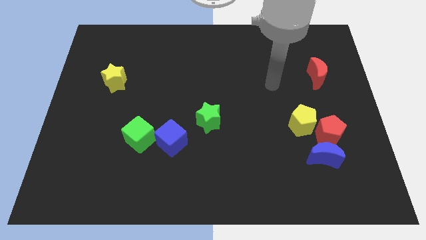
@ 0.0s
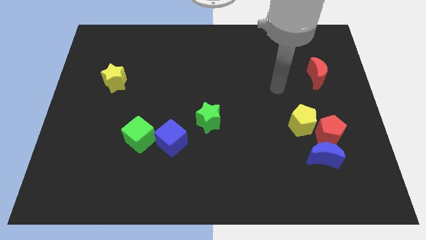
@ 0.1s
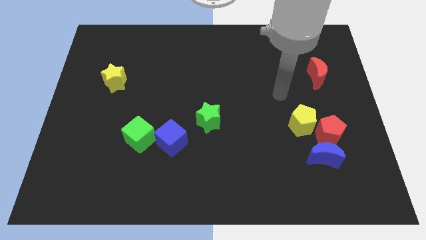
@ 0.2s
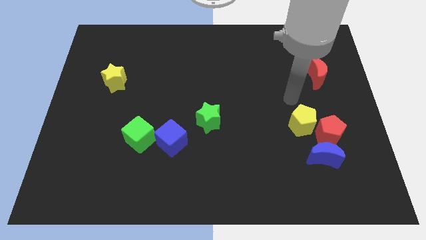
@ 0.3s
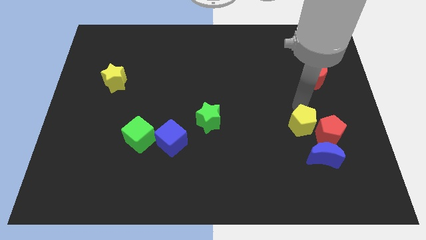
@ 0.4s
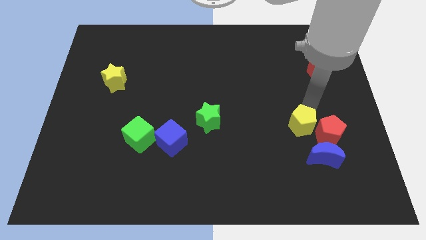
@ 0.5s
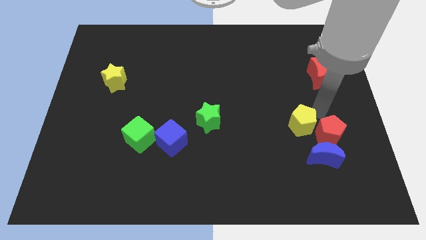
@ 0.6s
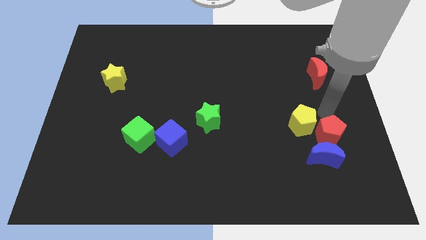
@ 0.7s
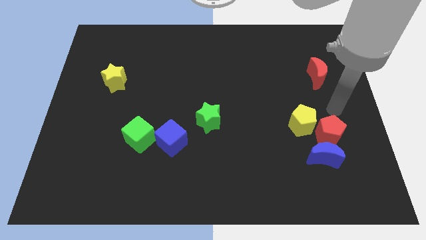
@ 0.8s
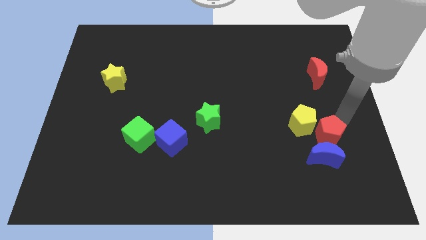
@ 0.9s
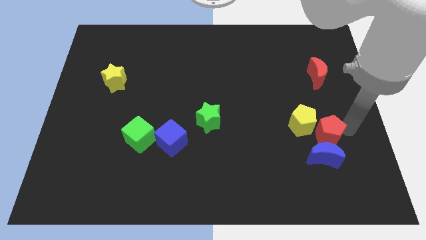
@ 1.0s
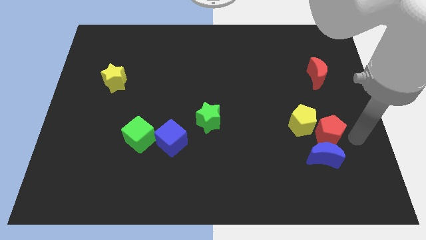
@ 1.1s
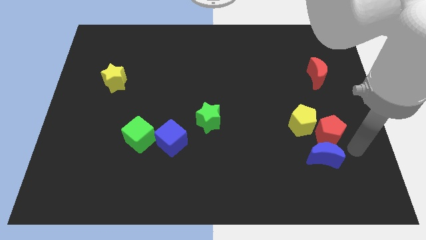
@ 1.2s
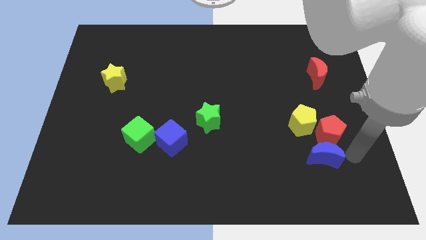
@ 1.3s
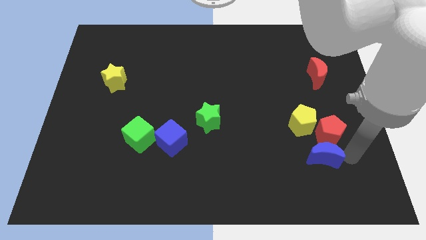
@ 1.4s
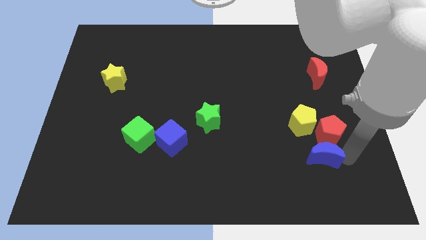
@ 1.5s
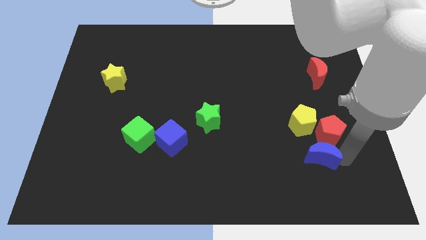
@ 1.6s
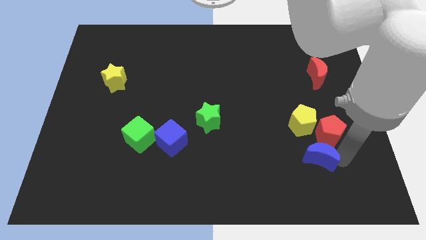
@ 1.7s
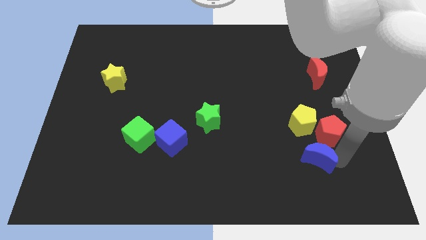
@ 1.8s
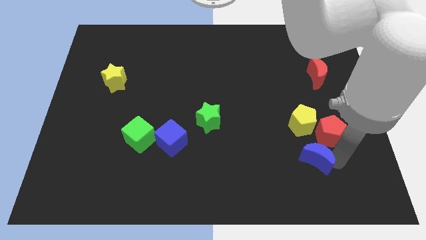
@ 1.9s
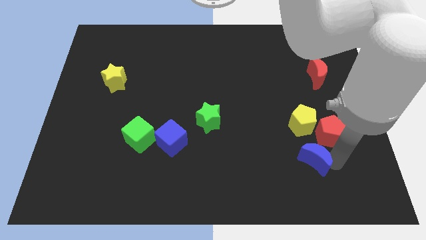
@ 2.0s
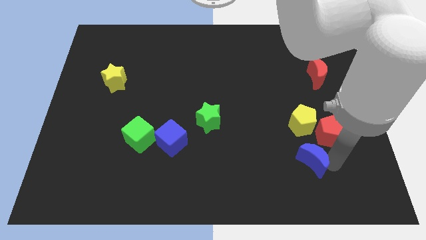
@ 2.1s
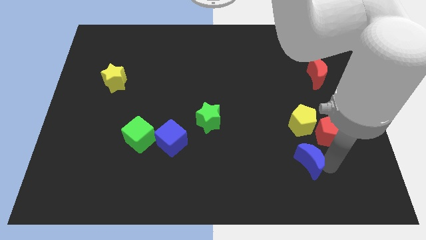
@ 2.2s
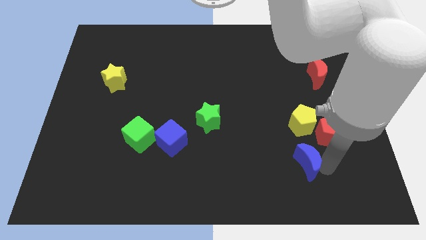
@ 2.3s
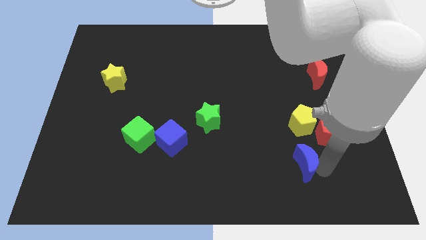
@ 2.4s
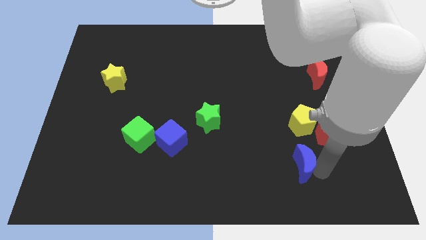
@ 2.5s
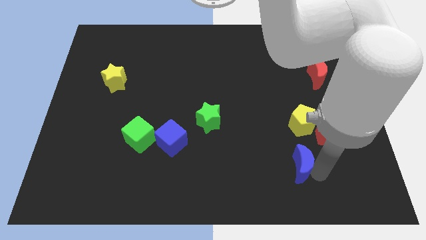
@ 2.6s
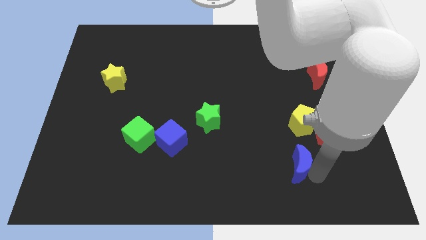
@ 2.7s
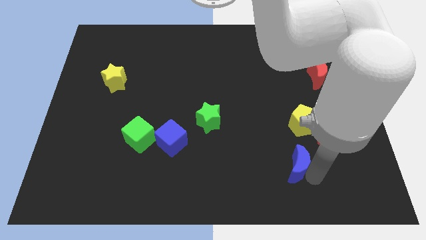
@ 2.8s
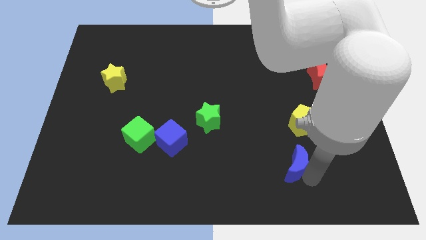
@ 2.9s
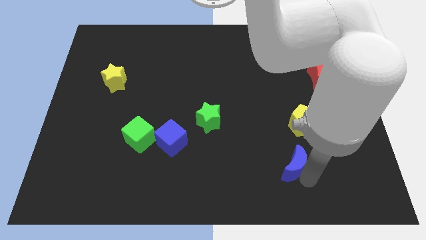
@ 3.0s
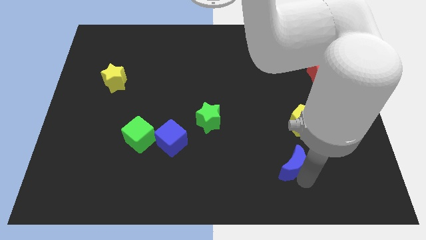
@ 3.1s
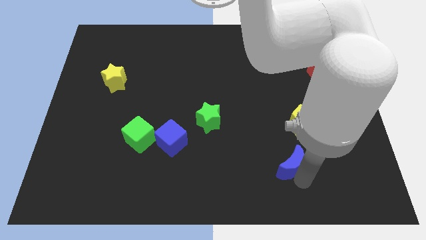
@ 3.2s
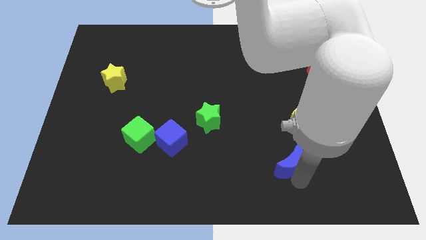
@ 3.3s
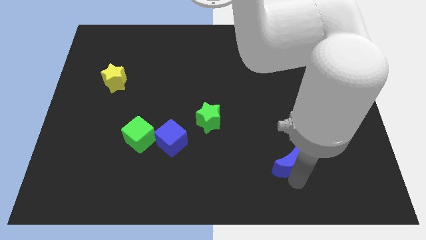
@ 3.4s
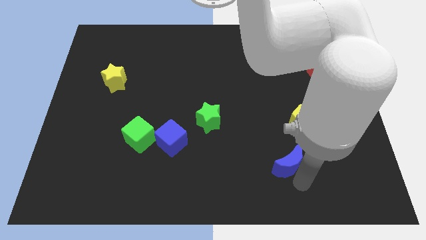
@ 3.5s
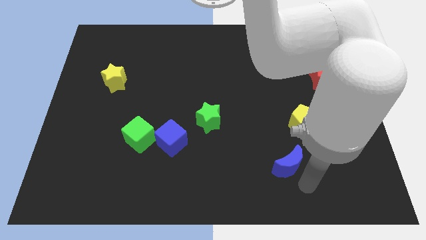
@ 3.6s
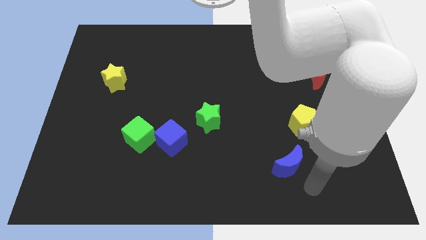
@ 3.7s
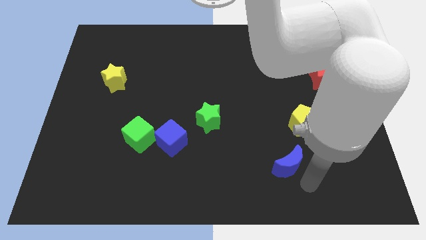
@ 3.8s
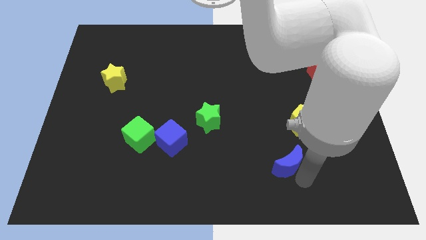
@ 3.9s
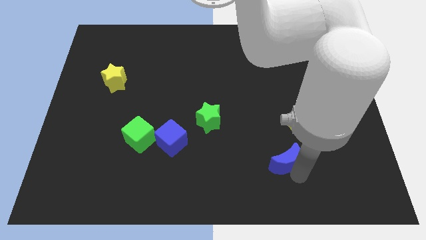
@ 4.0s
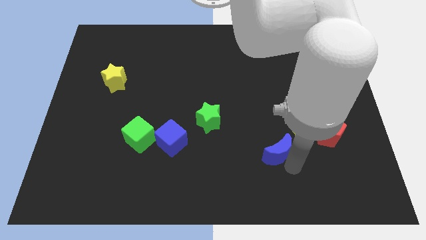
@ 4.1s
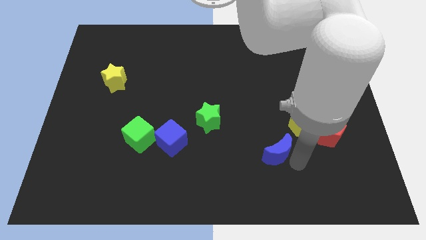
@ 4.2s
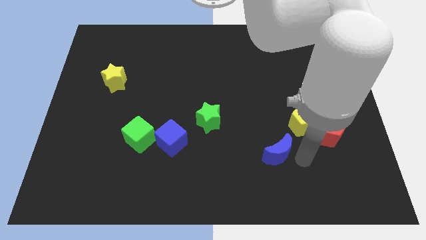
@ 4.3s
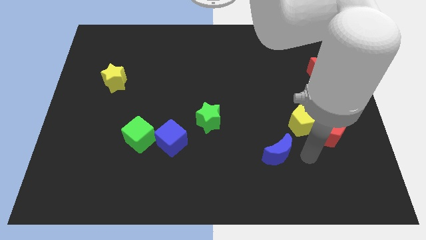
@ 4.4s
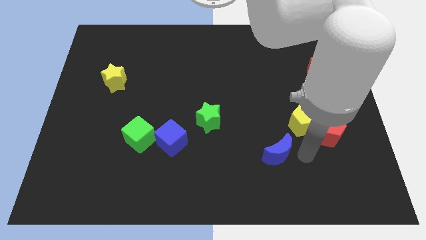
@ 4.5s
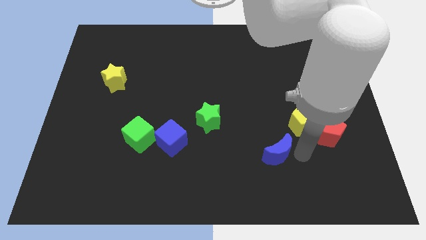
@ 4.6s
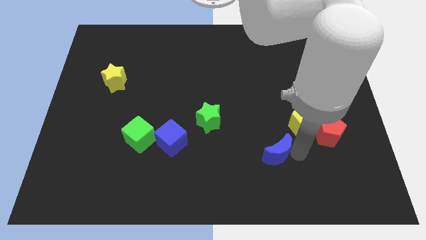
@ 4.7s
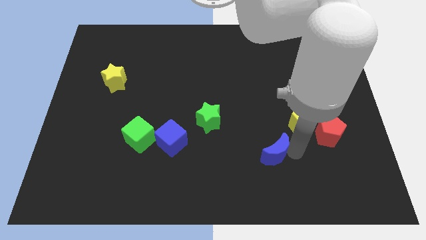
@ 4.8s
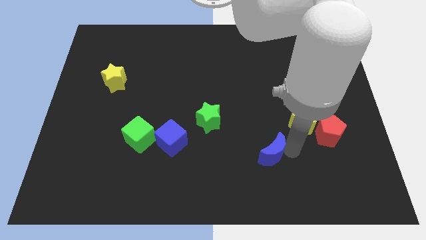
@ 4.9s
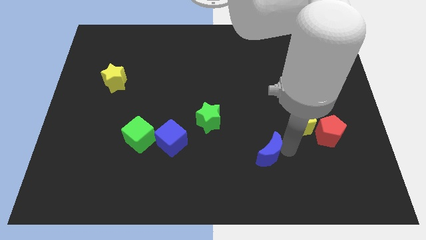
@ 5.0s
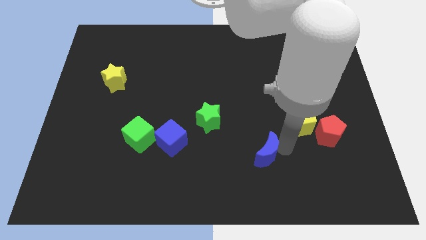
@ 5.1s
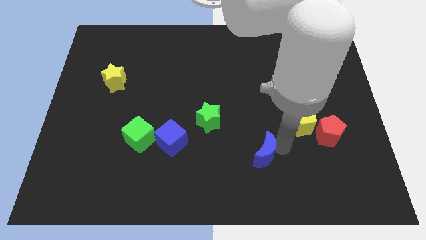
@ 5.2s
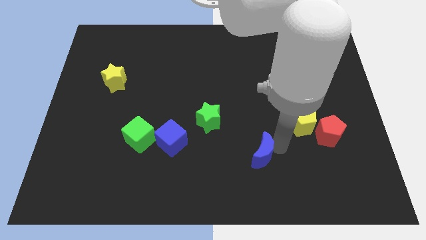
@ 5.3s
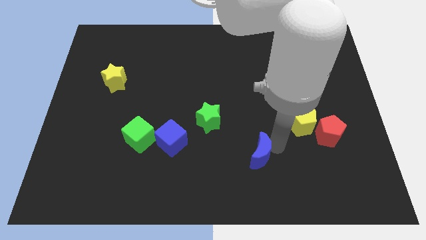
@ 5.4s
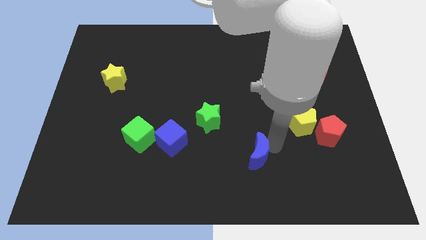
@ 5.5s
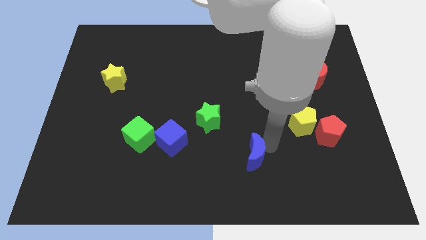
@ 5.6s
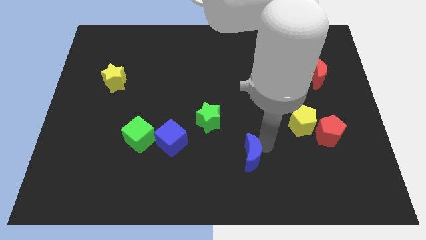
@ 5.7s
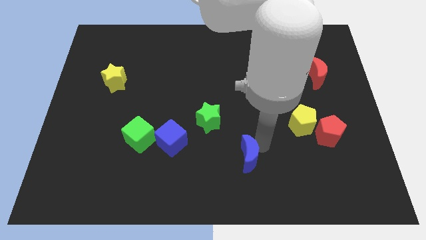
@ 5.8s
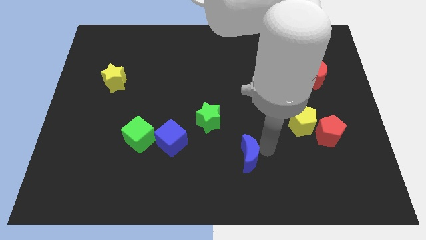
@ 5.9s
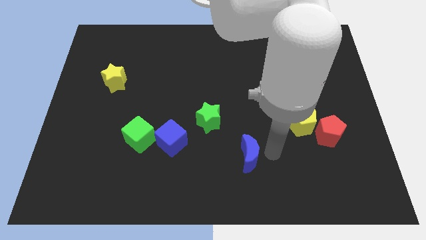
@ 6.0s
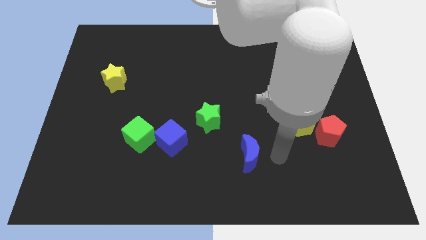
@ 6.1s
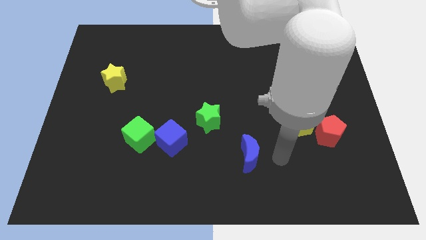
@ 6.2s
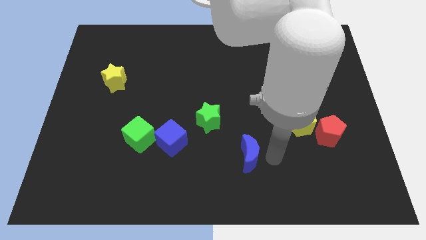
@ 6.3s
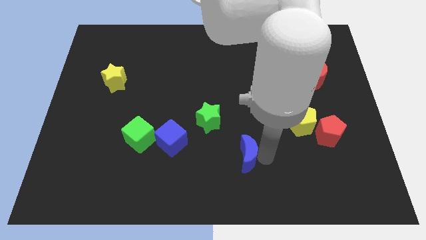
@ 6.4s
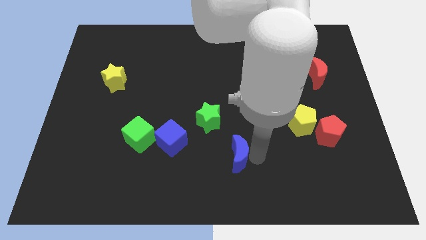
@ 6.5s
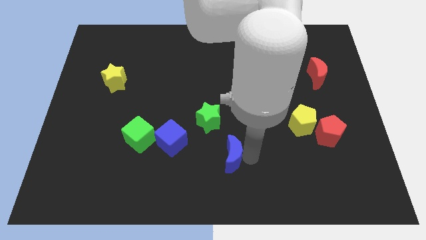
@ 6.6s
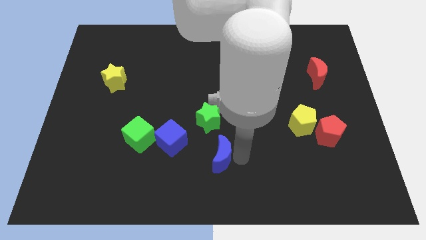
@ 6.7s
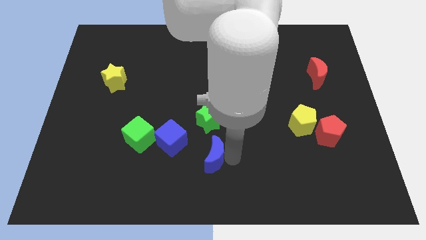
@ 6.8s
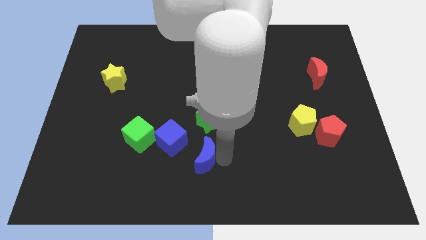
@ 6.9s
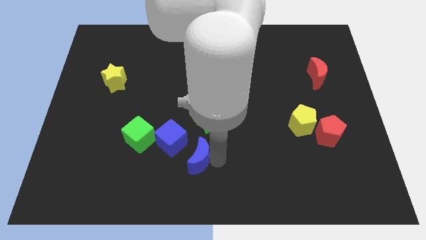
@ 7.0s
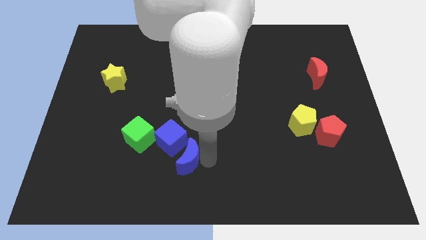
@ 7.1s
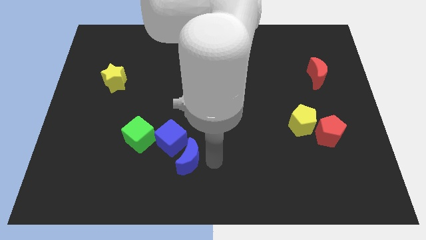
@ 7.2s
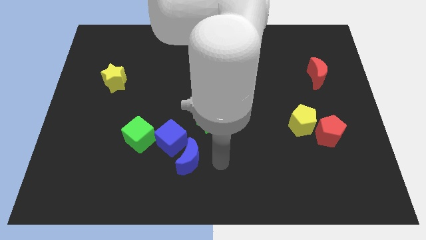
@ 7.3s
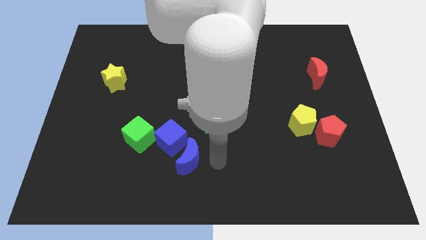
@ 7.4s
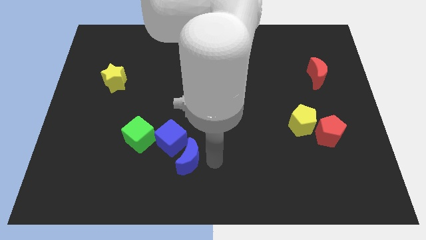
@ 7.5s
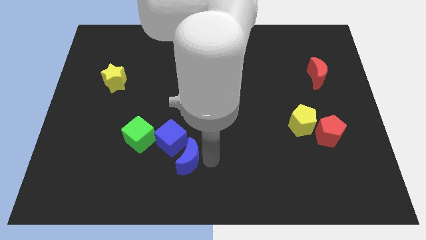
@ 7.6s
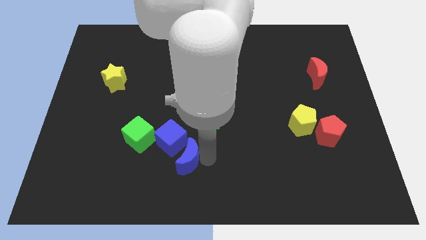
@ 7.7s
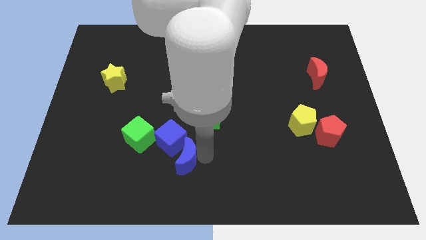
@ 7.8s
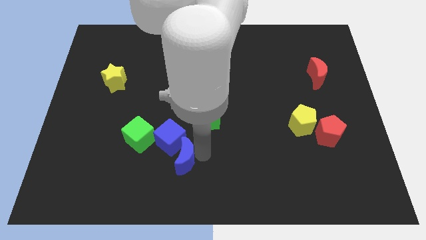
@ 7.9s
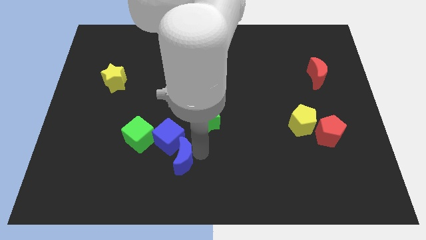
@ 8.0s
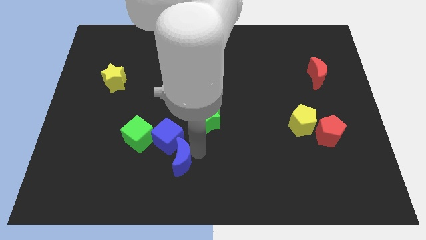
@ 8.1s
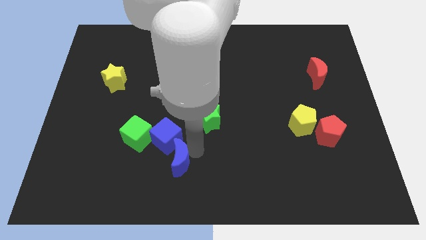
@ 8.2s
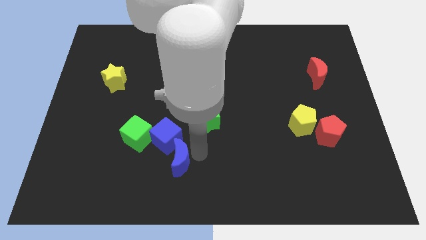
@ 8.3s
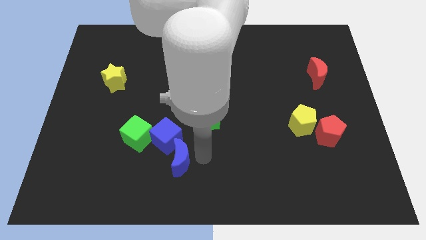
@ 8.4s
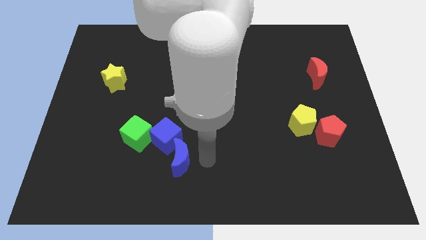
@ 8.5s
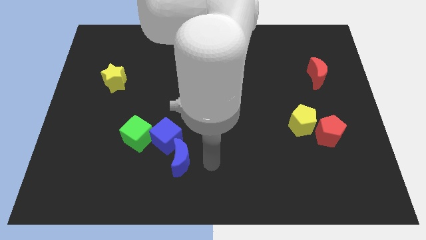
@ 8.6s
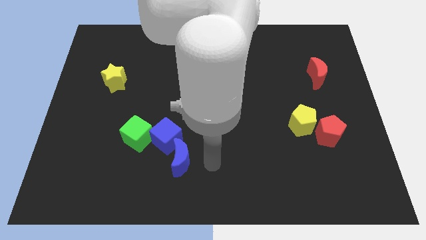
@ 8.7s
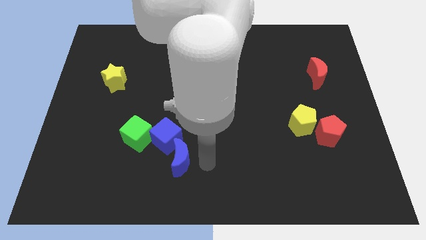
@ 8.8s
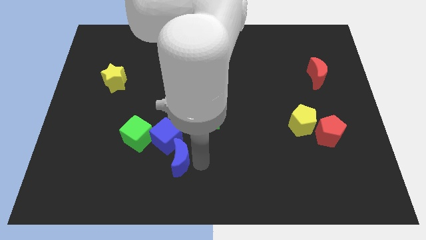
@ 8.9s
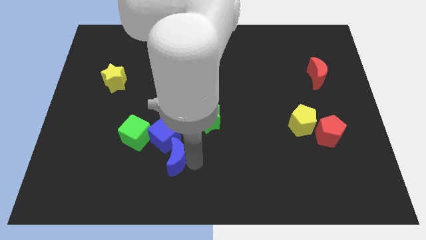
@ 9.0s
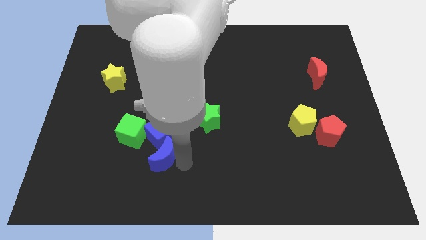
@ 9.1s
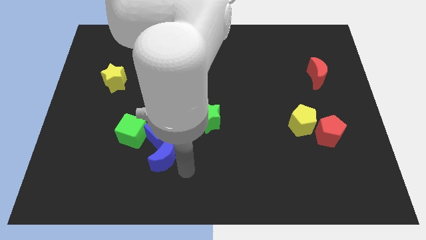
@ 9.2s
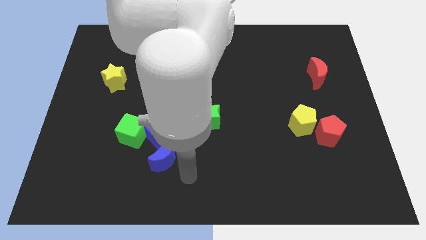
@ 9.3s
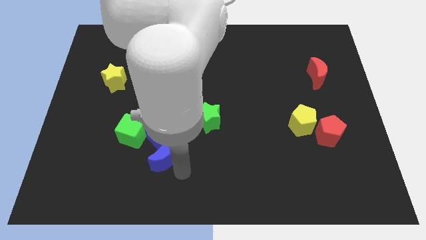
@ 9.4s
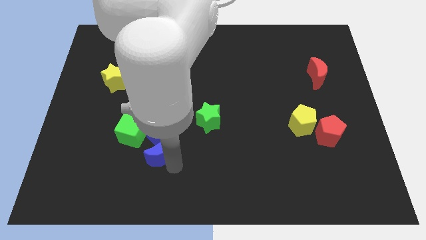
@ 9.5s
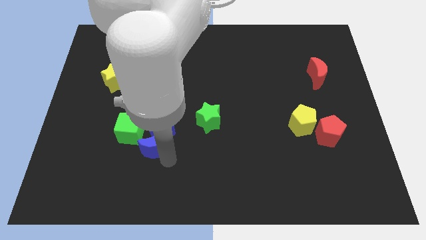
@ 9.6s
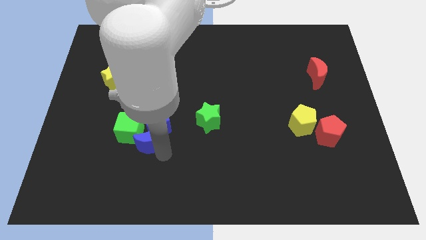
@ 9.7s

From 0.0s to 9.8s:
slide the blue moon towards the green cube
